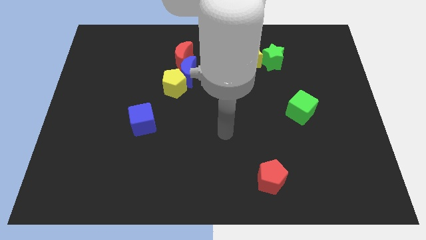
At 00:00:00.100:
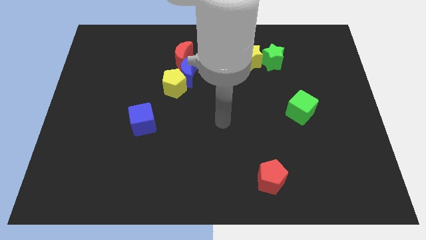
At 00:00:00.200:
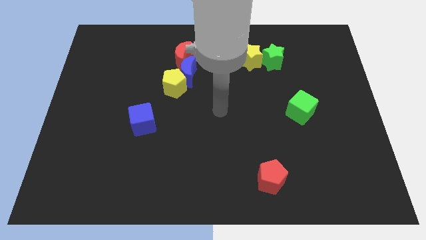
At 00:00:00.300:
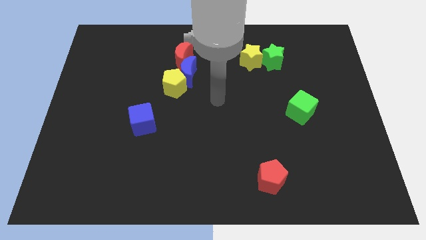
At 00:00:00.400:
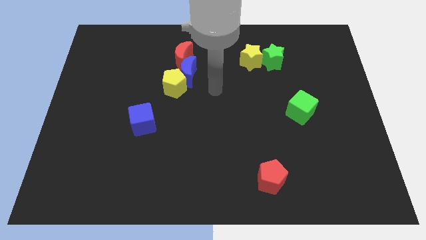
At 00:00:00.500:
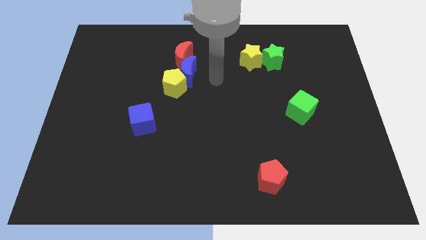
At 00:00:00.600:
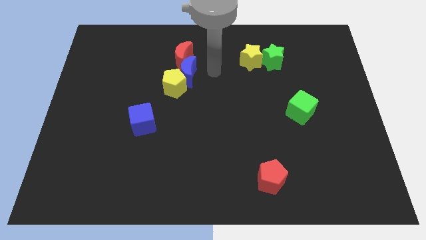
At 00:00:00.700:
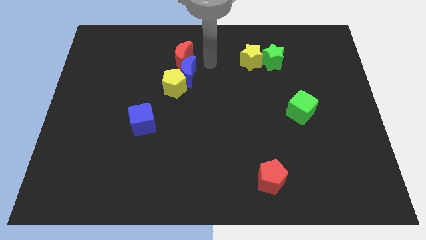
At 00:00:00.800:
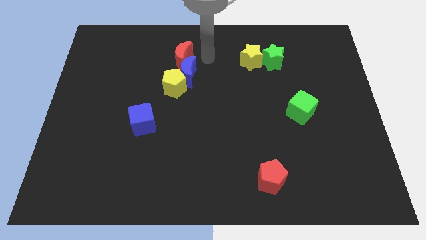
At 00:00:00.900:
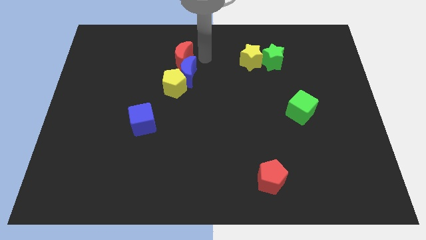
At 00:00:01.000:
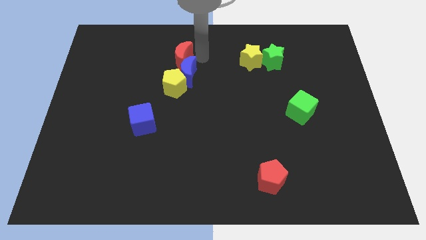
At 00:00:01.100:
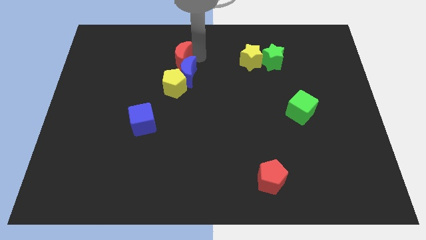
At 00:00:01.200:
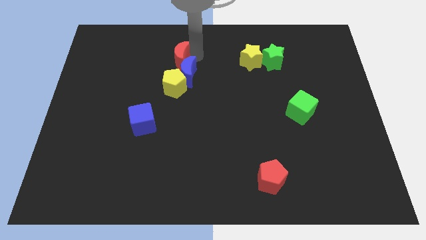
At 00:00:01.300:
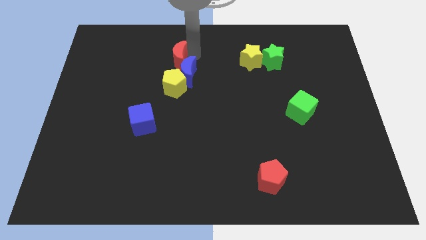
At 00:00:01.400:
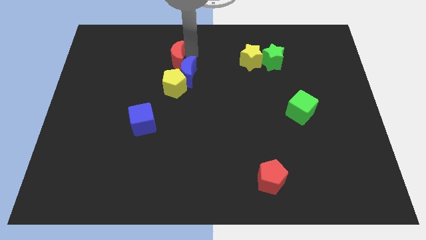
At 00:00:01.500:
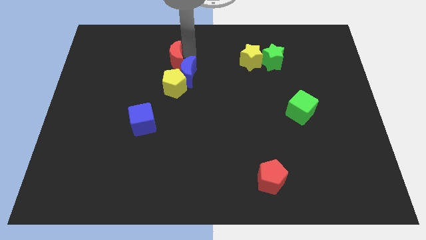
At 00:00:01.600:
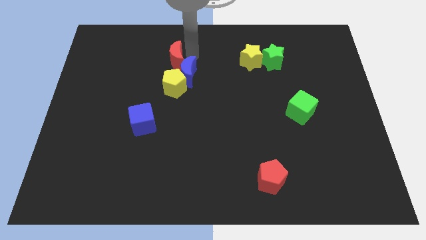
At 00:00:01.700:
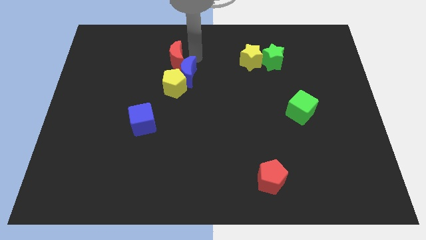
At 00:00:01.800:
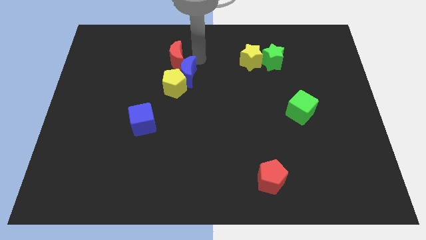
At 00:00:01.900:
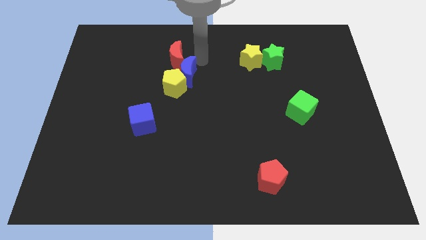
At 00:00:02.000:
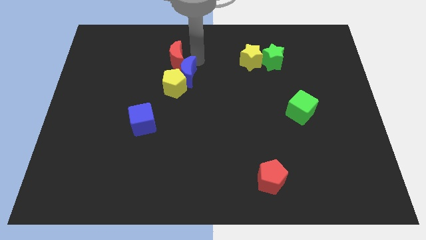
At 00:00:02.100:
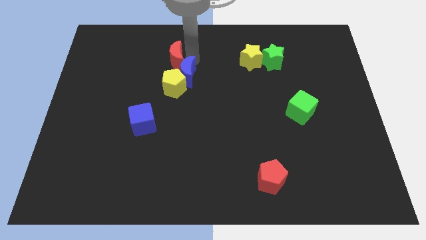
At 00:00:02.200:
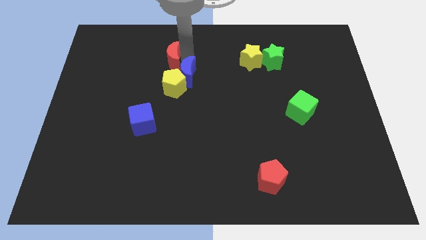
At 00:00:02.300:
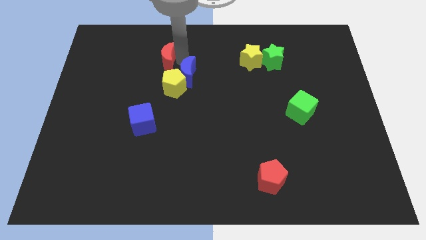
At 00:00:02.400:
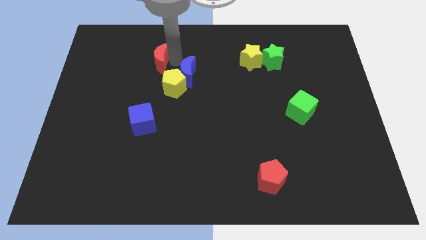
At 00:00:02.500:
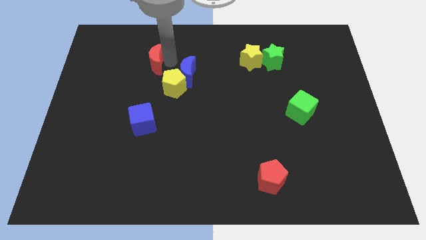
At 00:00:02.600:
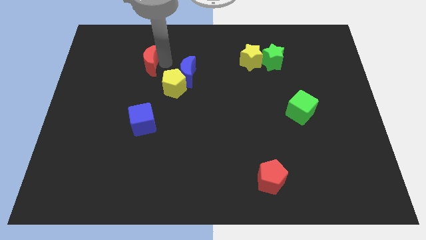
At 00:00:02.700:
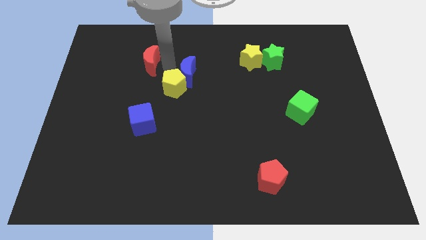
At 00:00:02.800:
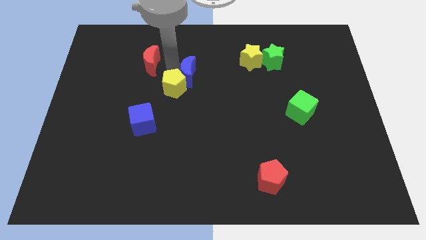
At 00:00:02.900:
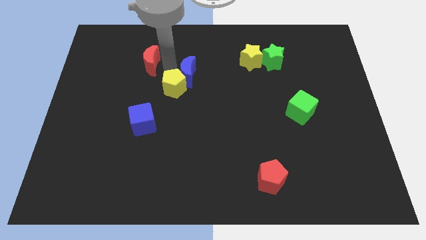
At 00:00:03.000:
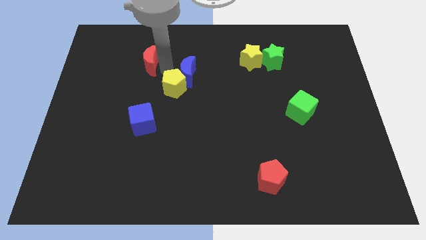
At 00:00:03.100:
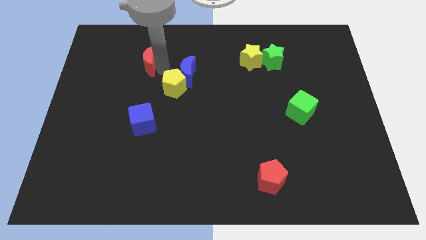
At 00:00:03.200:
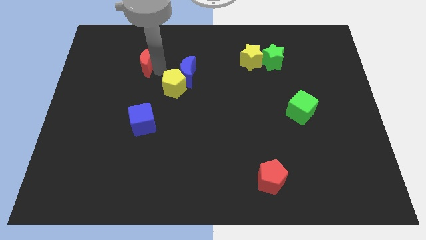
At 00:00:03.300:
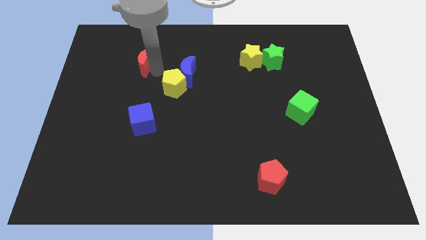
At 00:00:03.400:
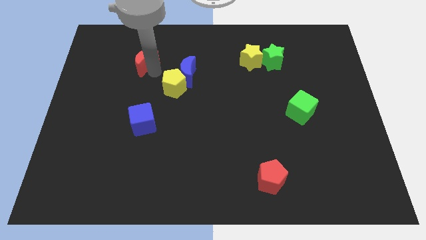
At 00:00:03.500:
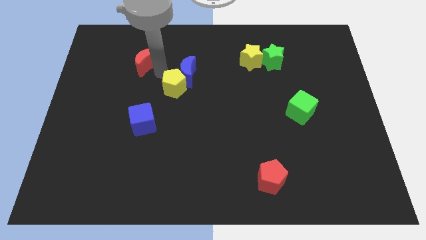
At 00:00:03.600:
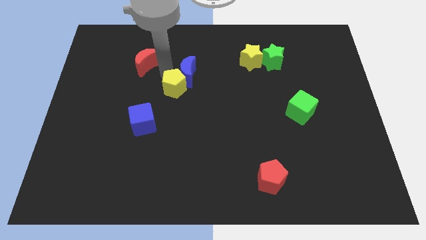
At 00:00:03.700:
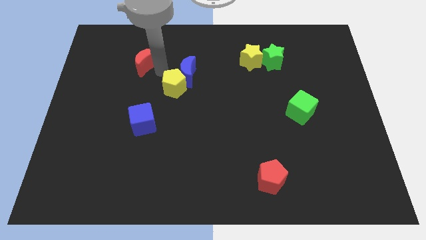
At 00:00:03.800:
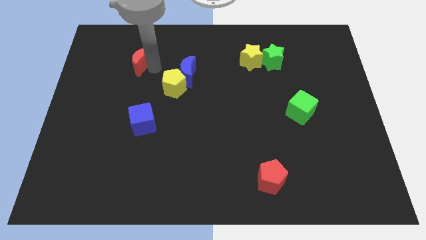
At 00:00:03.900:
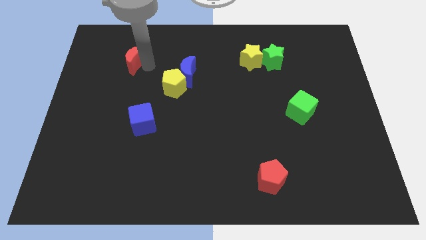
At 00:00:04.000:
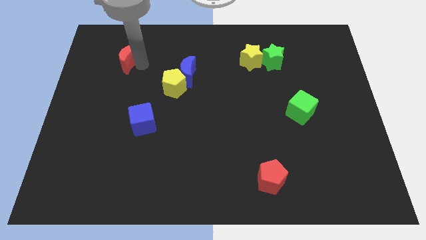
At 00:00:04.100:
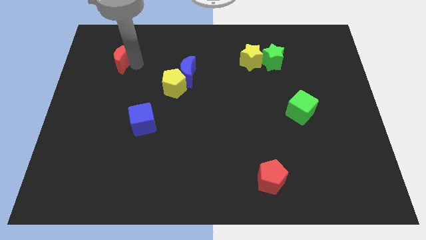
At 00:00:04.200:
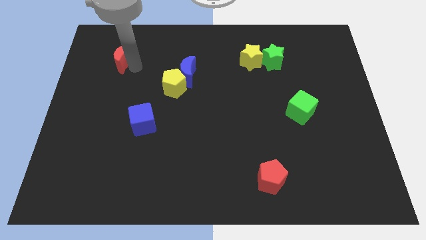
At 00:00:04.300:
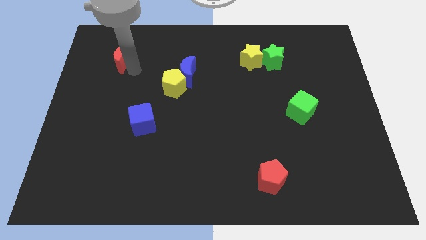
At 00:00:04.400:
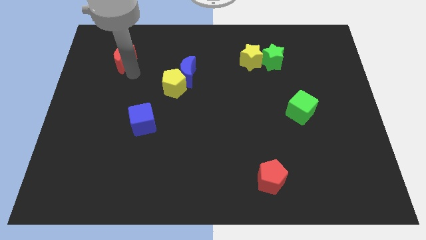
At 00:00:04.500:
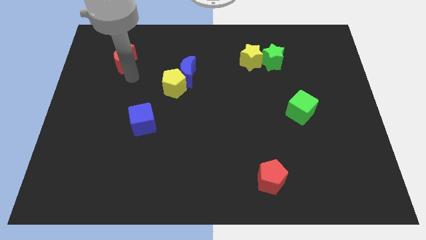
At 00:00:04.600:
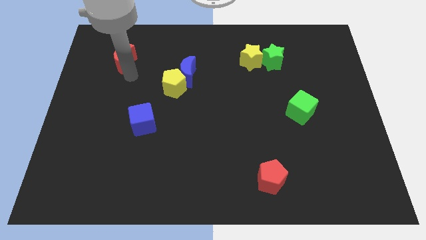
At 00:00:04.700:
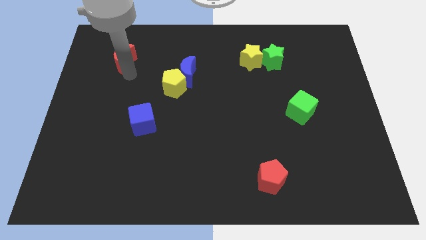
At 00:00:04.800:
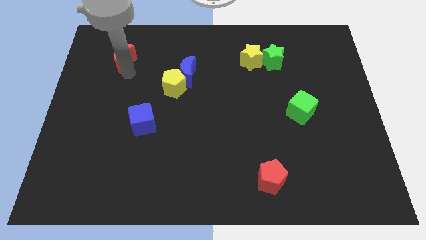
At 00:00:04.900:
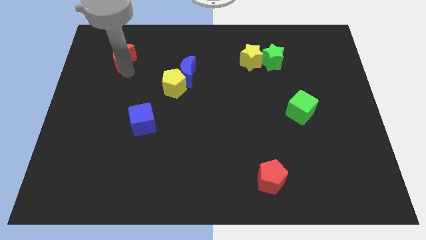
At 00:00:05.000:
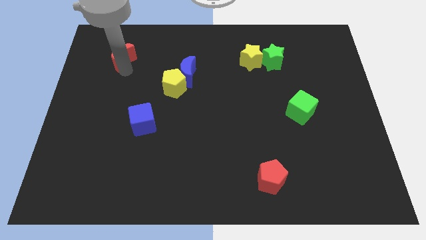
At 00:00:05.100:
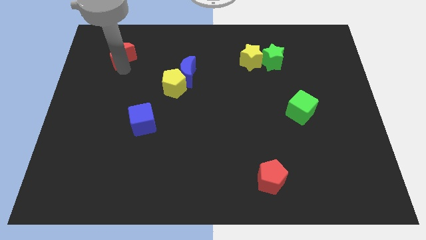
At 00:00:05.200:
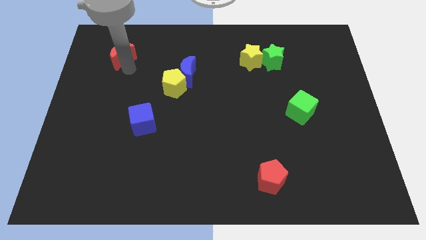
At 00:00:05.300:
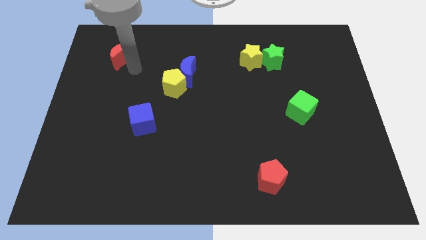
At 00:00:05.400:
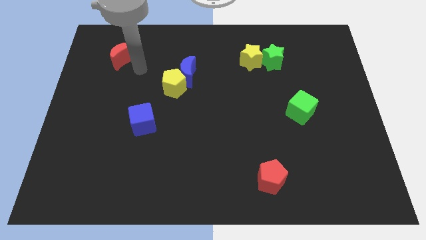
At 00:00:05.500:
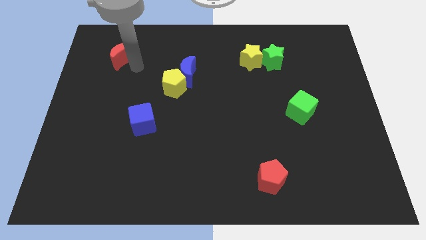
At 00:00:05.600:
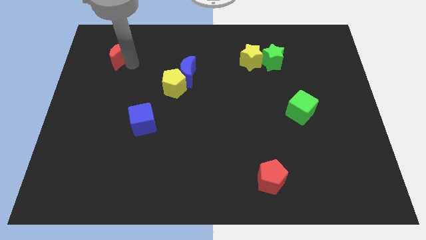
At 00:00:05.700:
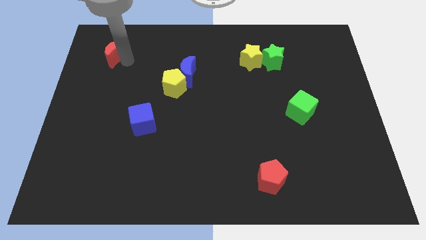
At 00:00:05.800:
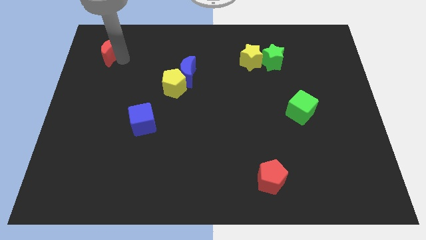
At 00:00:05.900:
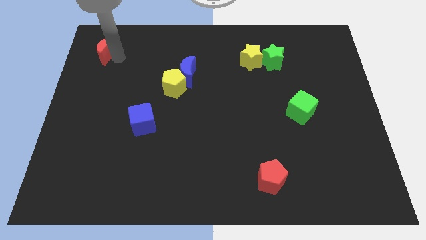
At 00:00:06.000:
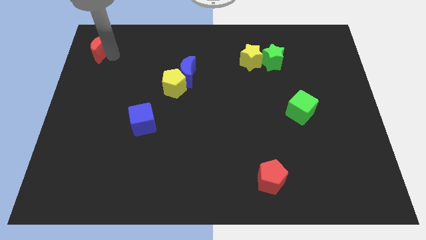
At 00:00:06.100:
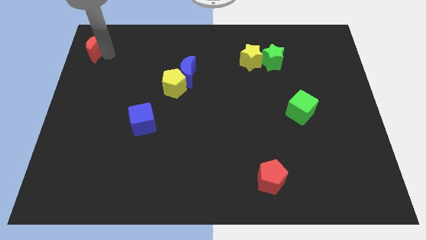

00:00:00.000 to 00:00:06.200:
move the red moon to the top left
